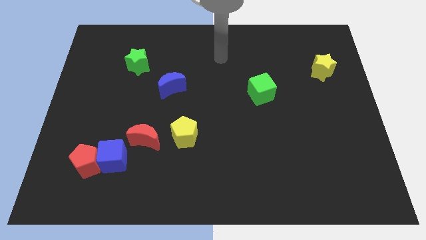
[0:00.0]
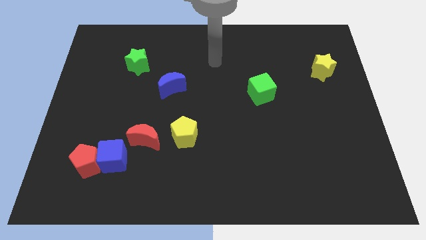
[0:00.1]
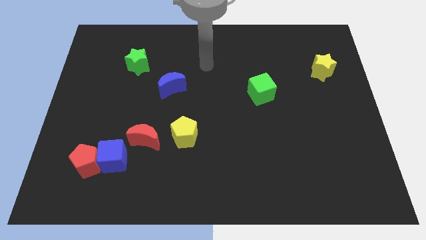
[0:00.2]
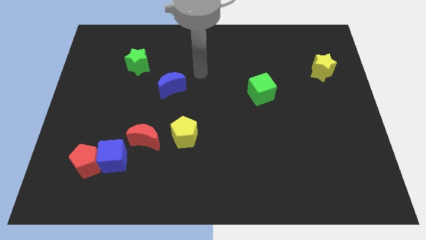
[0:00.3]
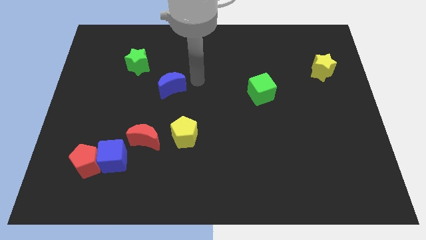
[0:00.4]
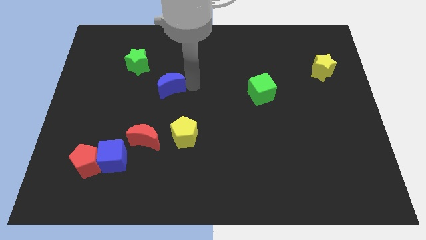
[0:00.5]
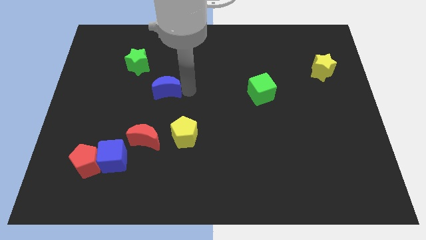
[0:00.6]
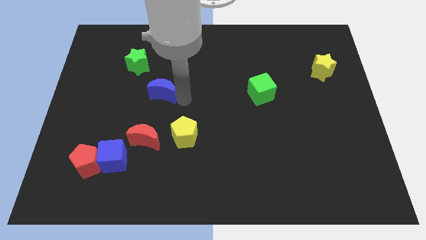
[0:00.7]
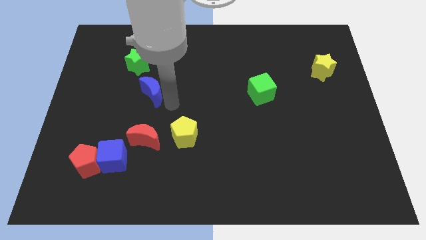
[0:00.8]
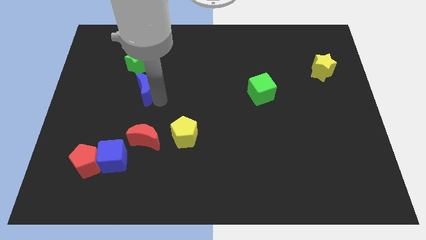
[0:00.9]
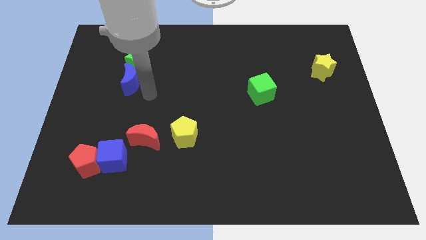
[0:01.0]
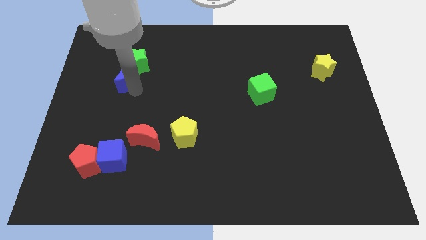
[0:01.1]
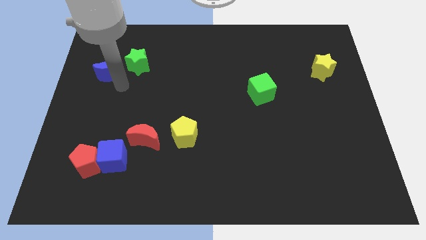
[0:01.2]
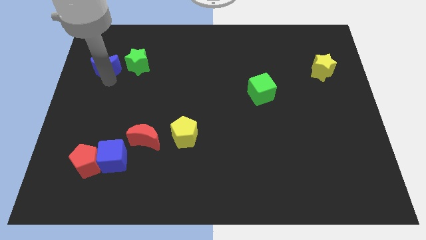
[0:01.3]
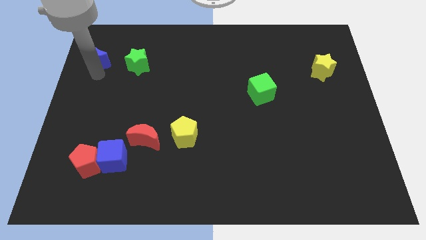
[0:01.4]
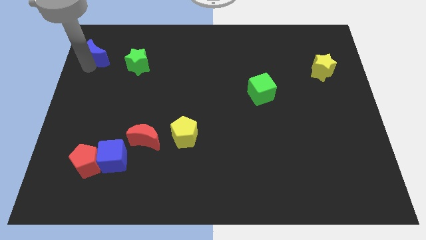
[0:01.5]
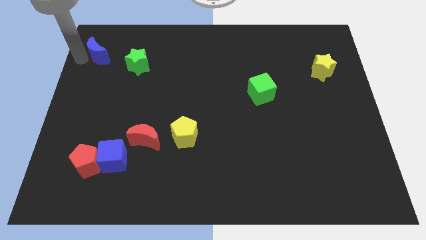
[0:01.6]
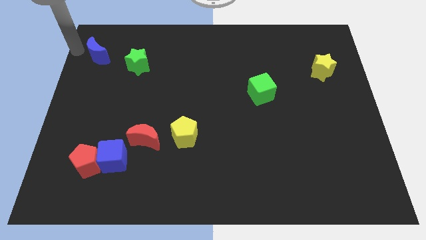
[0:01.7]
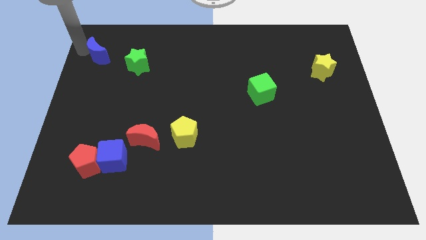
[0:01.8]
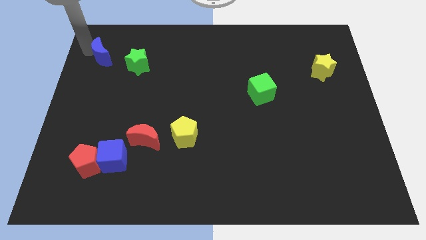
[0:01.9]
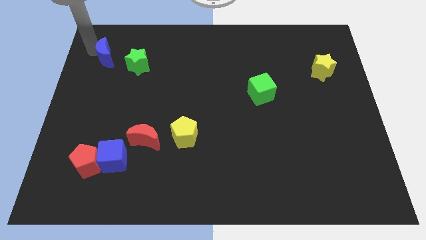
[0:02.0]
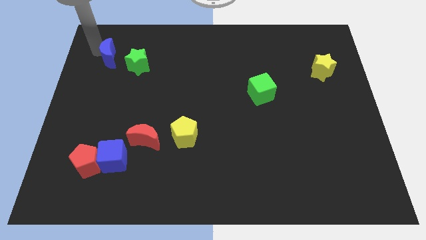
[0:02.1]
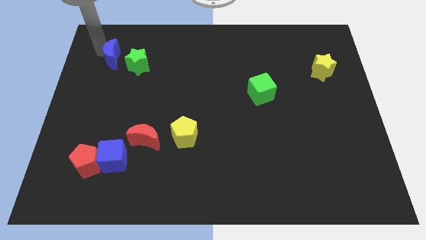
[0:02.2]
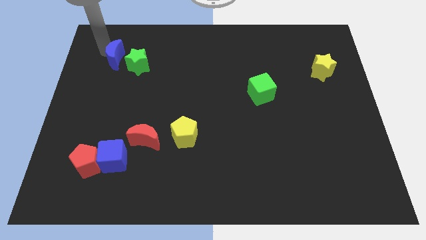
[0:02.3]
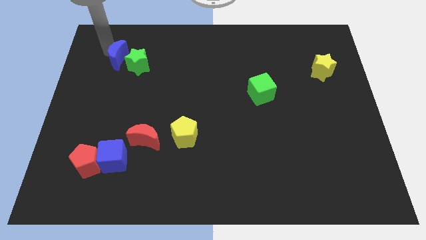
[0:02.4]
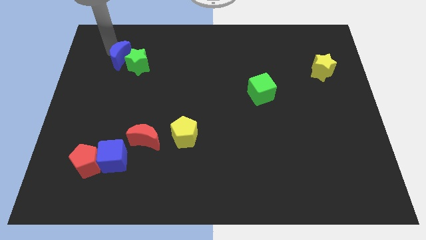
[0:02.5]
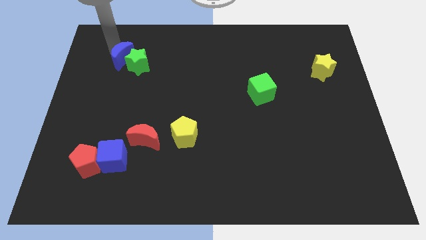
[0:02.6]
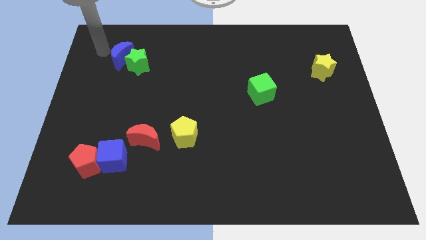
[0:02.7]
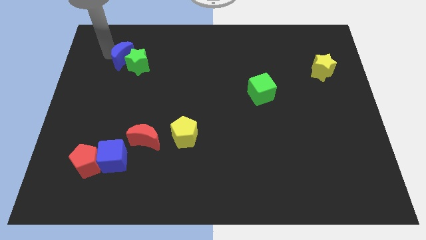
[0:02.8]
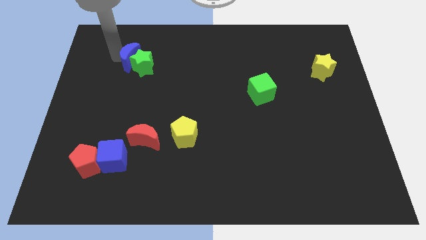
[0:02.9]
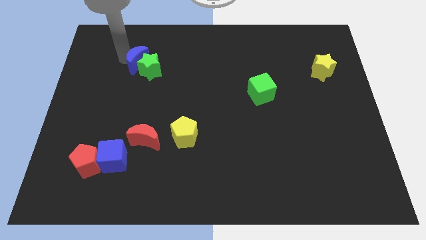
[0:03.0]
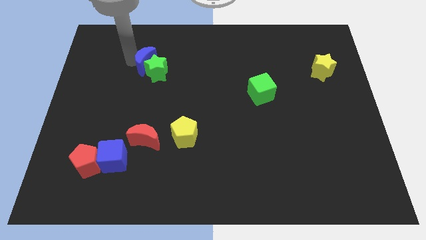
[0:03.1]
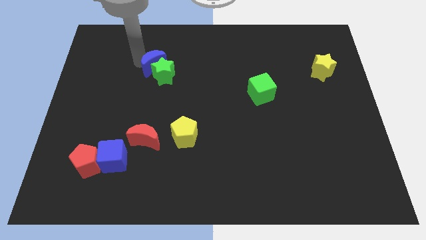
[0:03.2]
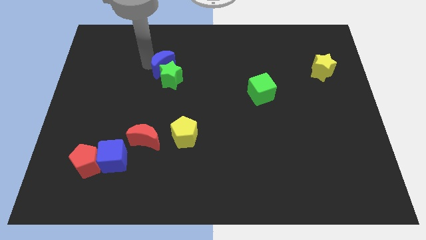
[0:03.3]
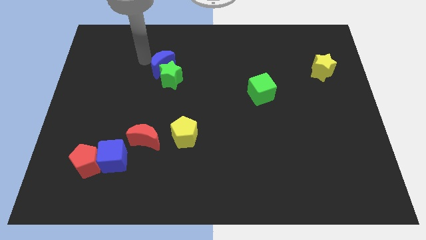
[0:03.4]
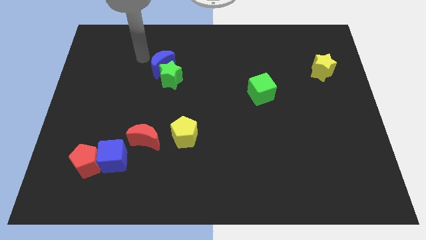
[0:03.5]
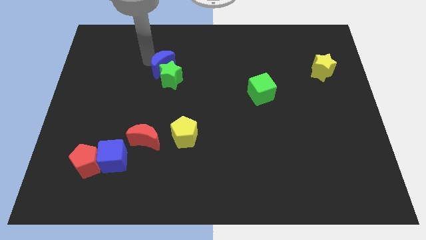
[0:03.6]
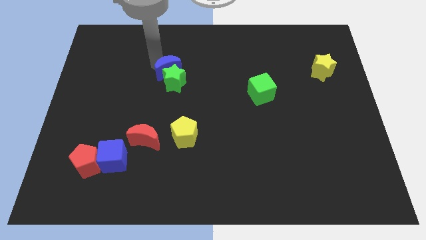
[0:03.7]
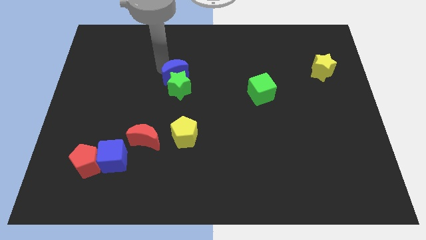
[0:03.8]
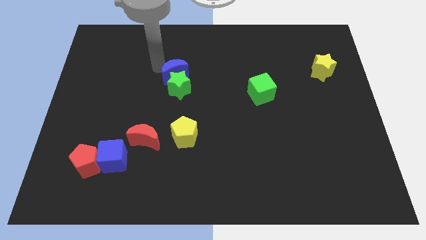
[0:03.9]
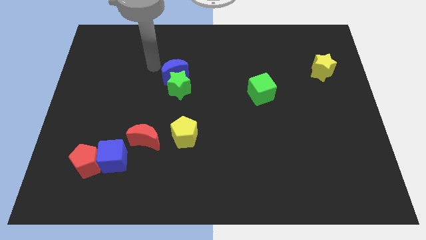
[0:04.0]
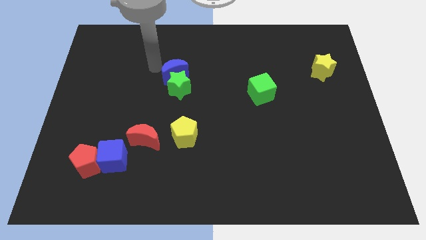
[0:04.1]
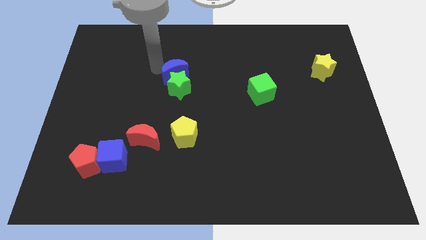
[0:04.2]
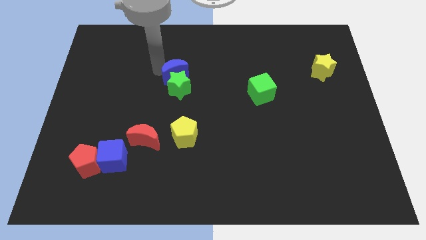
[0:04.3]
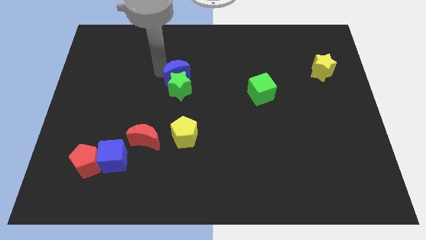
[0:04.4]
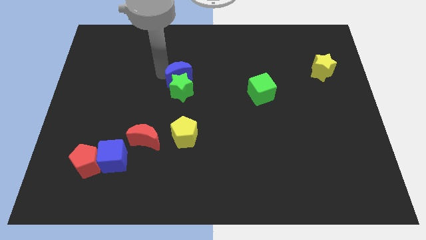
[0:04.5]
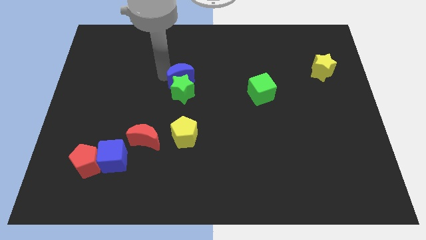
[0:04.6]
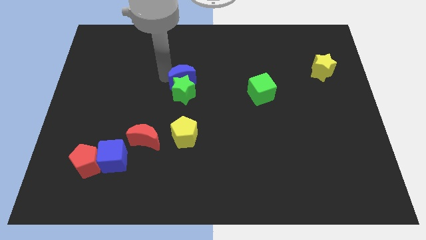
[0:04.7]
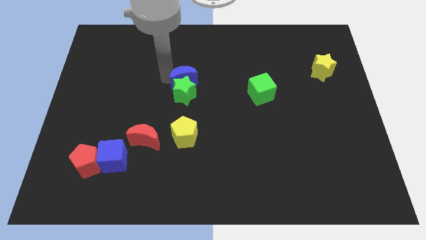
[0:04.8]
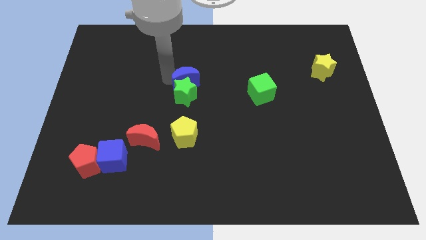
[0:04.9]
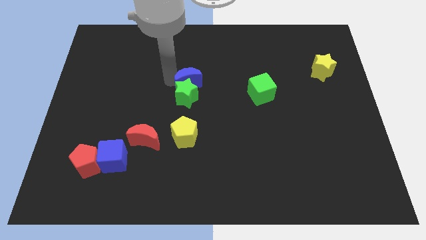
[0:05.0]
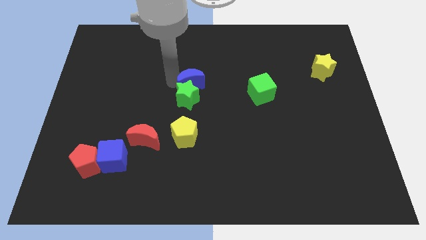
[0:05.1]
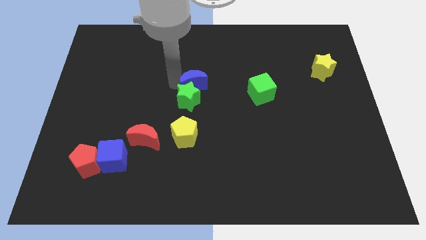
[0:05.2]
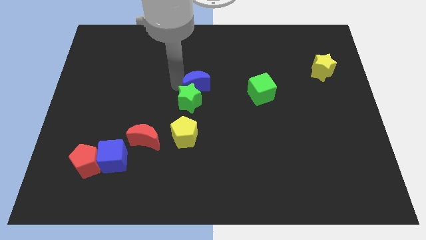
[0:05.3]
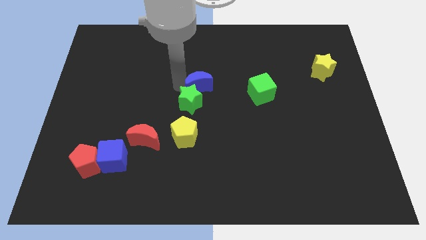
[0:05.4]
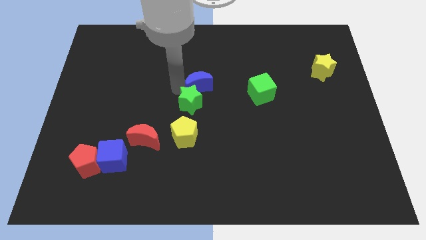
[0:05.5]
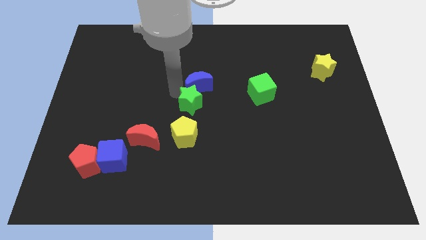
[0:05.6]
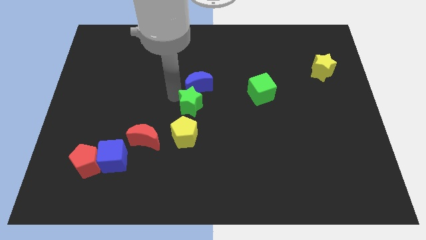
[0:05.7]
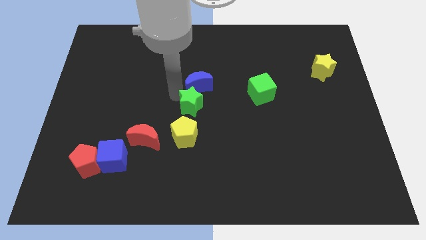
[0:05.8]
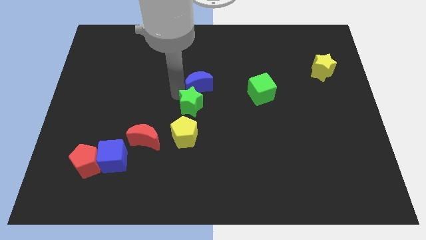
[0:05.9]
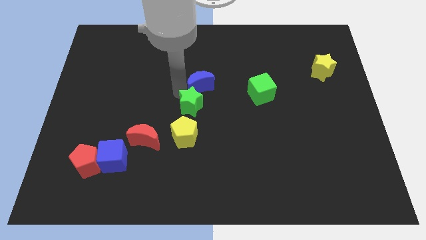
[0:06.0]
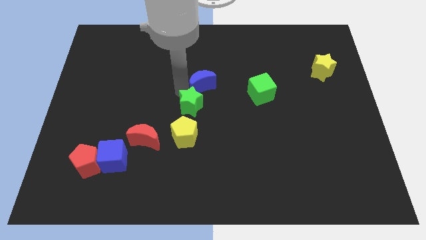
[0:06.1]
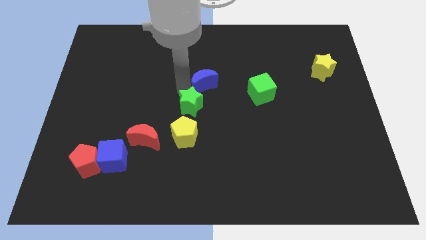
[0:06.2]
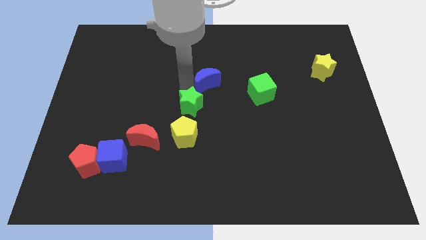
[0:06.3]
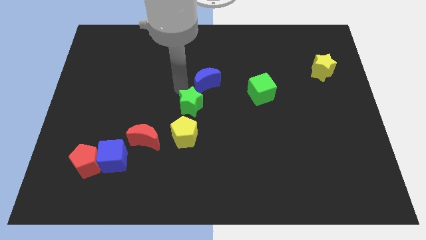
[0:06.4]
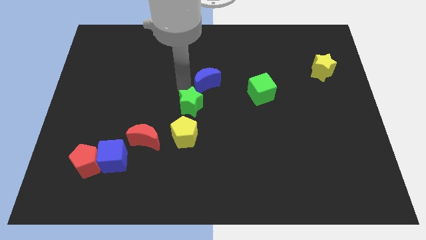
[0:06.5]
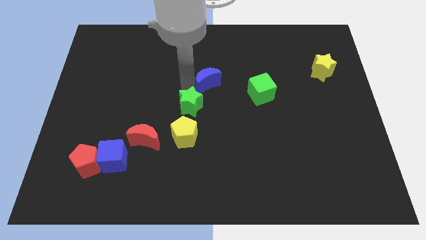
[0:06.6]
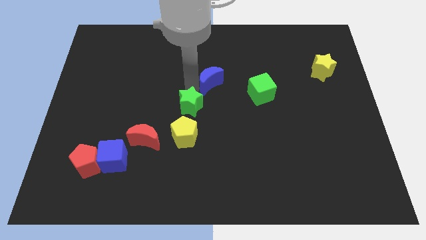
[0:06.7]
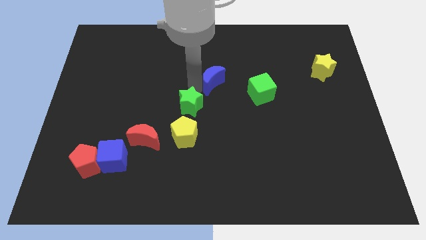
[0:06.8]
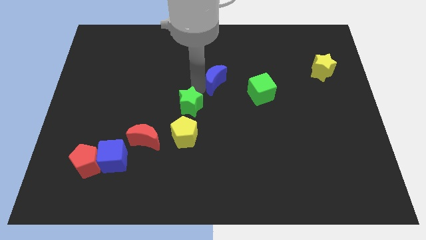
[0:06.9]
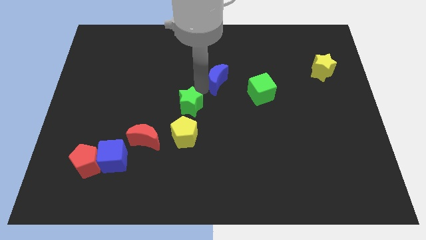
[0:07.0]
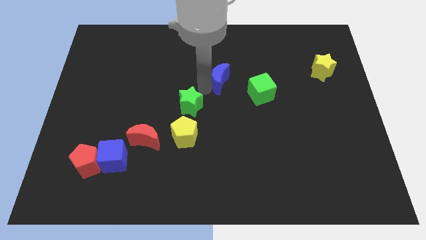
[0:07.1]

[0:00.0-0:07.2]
move the blue moon to the top left side of the green cube
